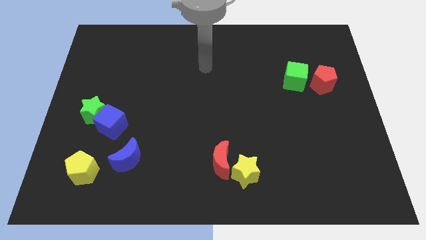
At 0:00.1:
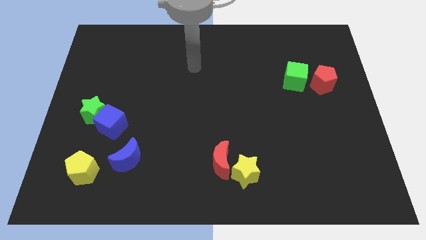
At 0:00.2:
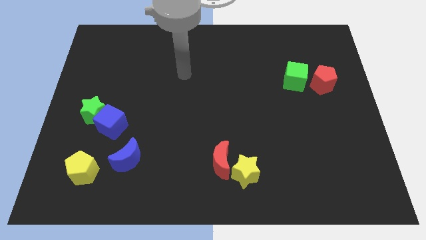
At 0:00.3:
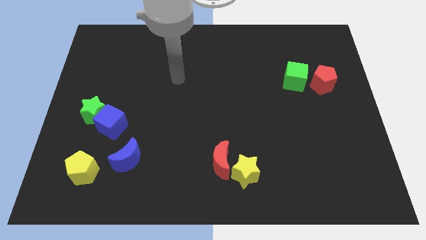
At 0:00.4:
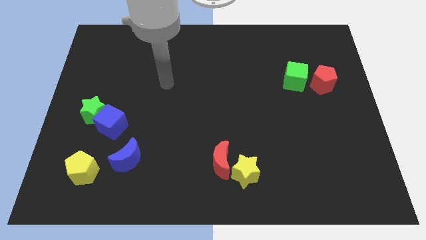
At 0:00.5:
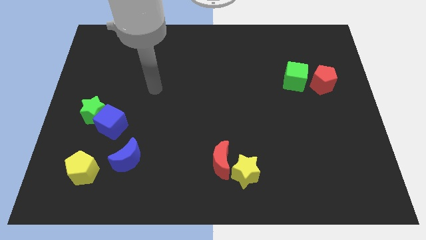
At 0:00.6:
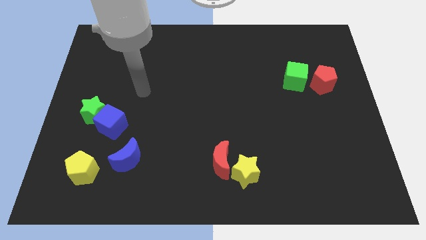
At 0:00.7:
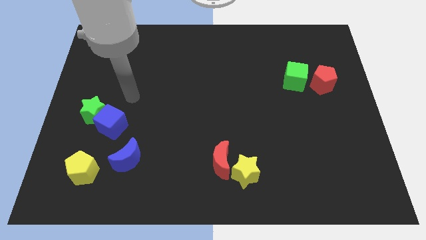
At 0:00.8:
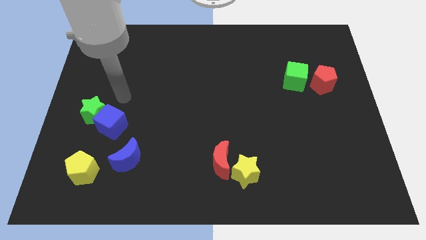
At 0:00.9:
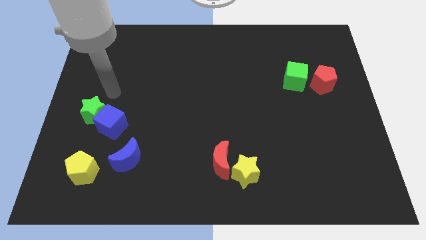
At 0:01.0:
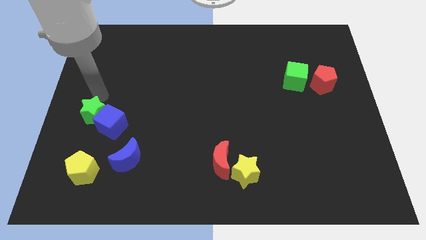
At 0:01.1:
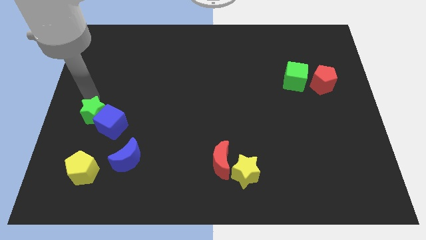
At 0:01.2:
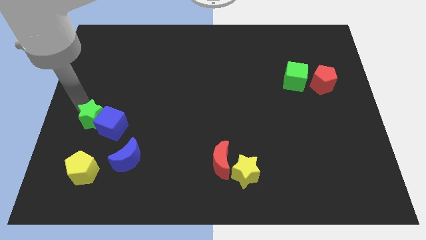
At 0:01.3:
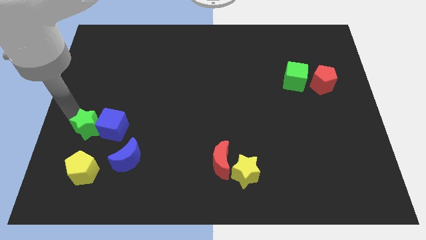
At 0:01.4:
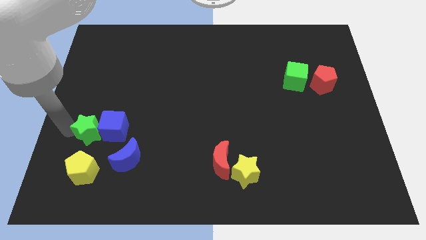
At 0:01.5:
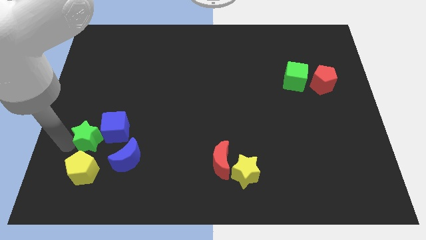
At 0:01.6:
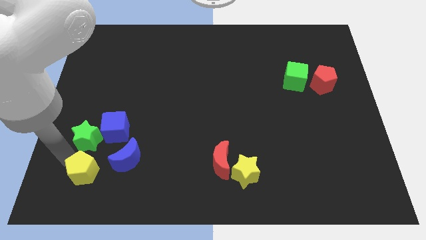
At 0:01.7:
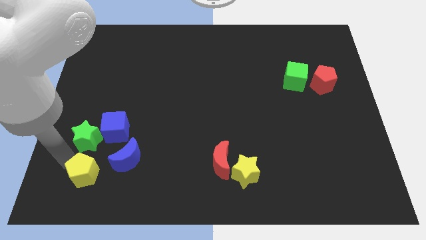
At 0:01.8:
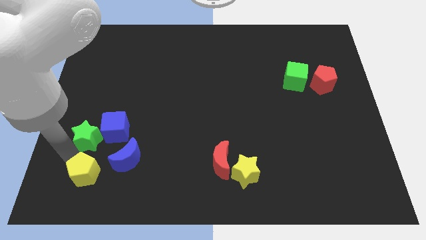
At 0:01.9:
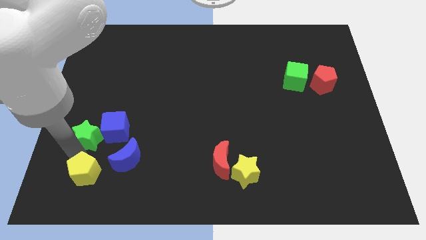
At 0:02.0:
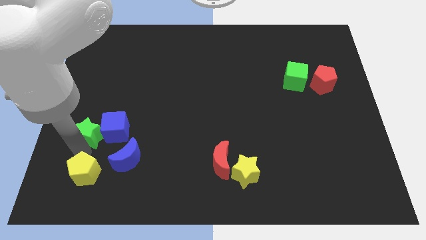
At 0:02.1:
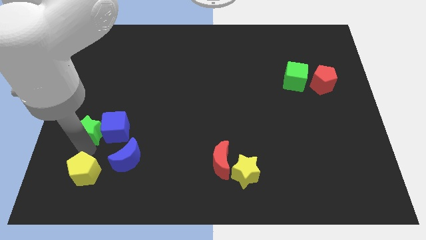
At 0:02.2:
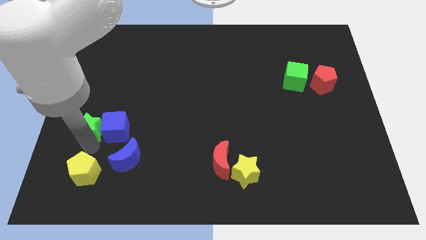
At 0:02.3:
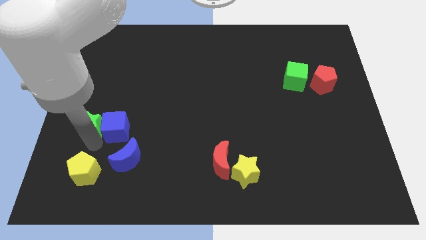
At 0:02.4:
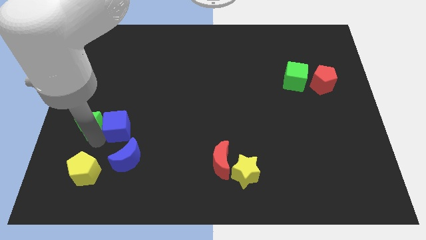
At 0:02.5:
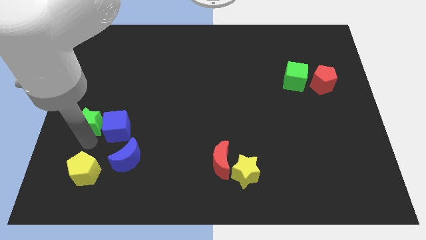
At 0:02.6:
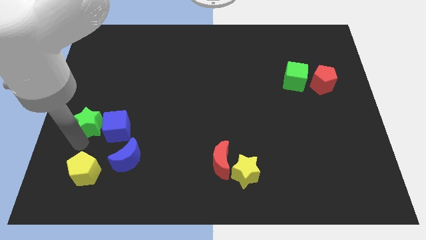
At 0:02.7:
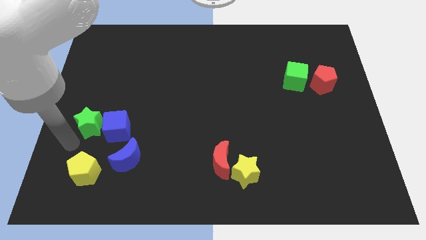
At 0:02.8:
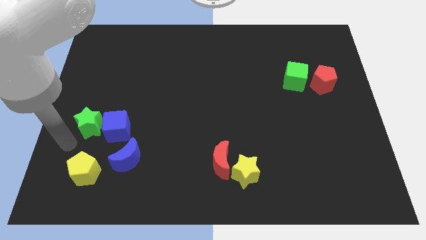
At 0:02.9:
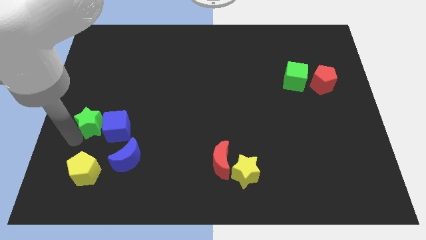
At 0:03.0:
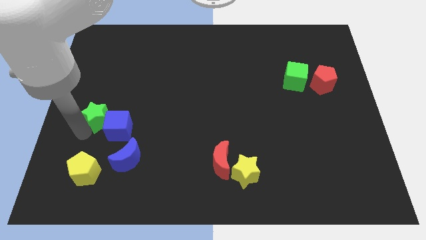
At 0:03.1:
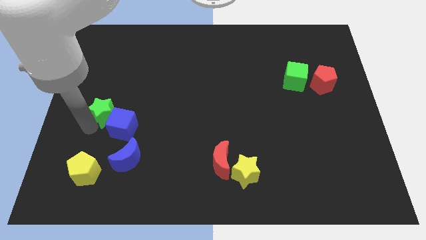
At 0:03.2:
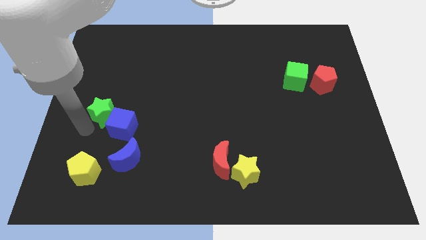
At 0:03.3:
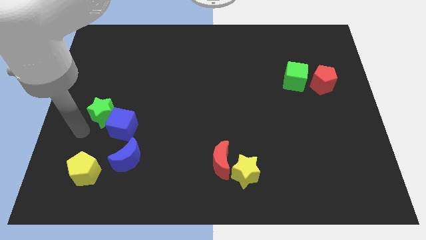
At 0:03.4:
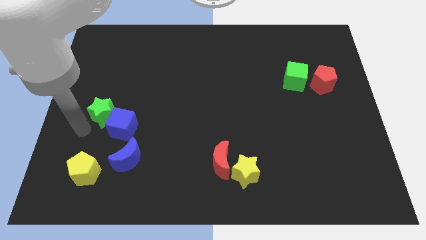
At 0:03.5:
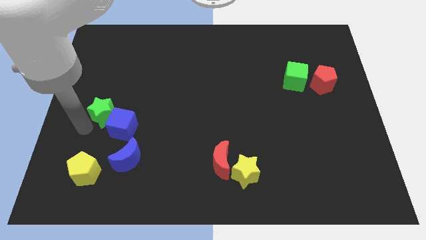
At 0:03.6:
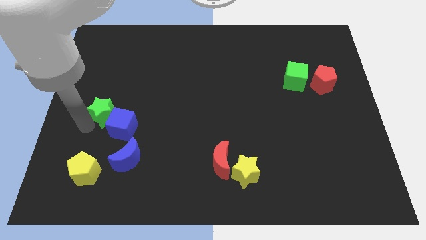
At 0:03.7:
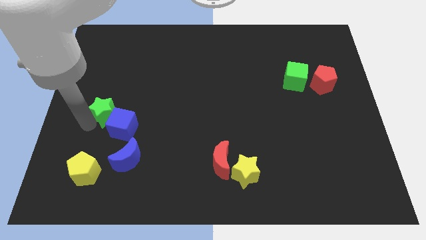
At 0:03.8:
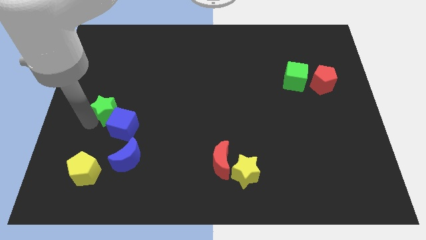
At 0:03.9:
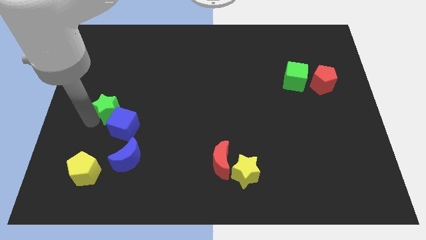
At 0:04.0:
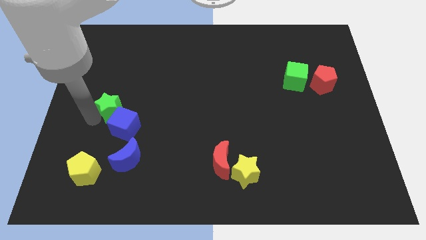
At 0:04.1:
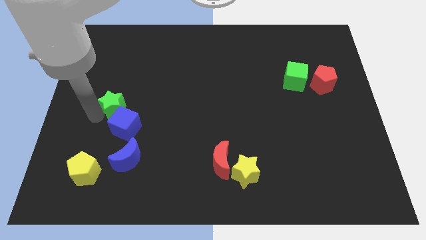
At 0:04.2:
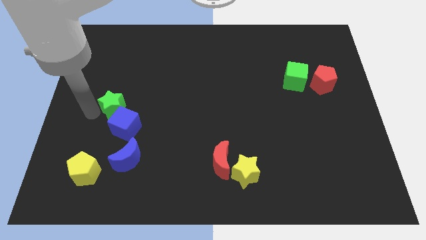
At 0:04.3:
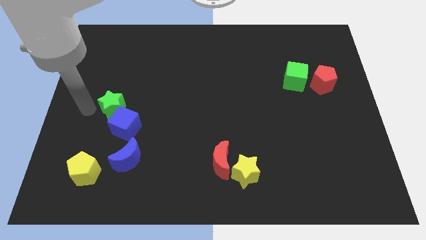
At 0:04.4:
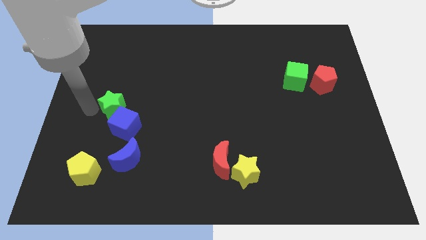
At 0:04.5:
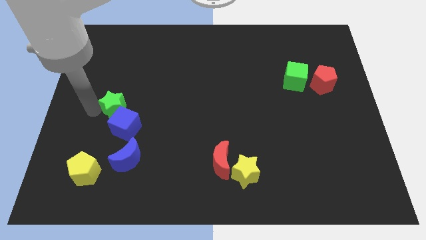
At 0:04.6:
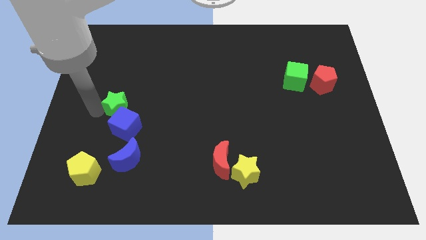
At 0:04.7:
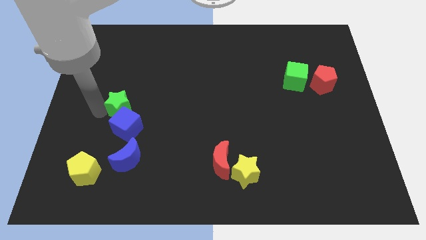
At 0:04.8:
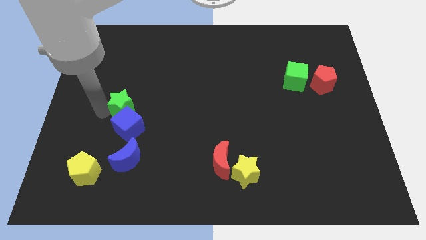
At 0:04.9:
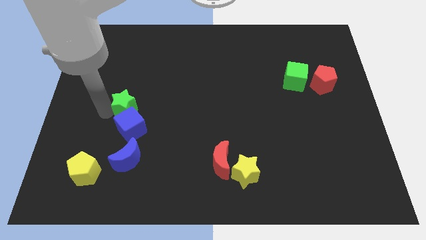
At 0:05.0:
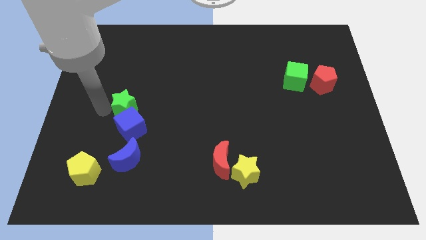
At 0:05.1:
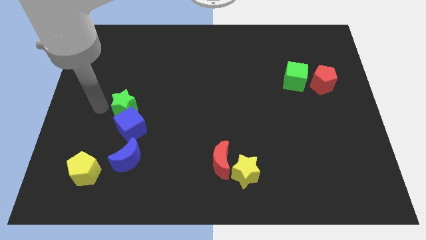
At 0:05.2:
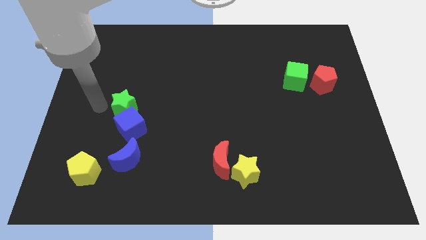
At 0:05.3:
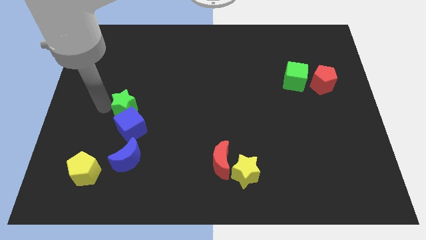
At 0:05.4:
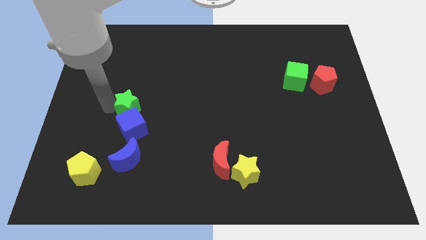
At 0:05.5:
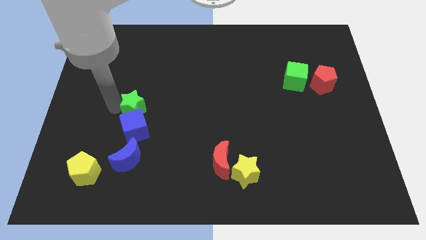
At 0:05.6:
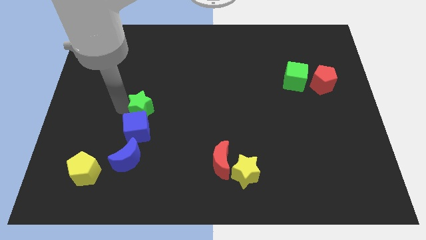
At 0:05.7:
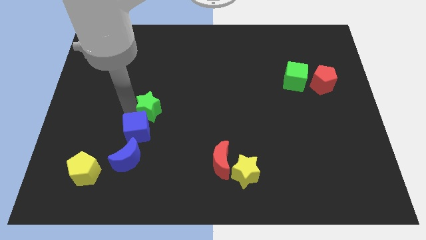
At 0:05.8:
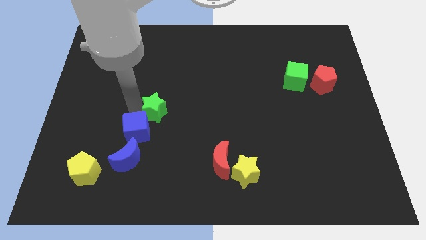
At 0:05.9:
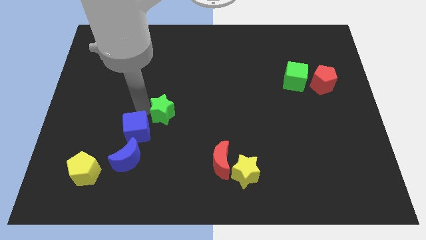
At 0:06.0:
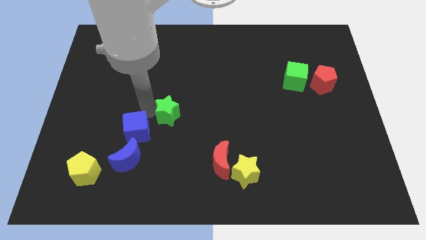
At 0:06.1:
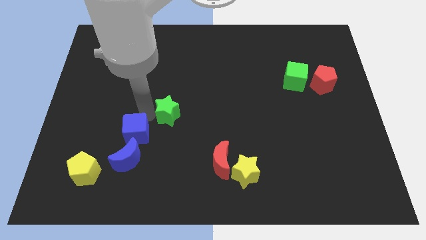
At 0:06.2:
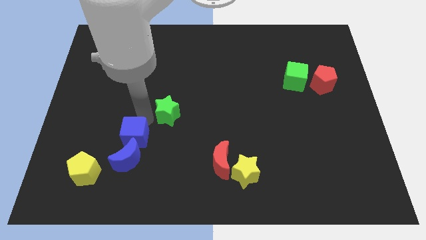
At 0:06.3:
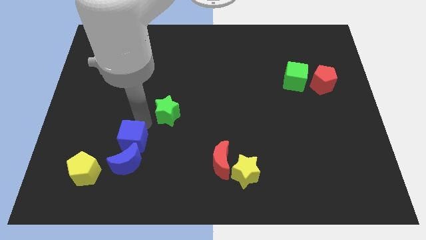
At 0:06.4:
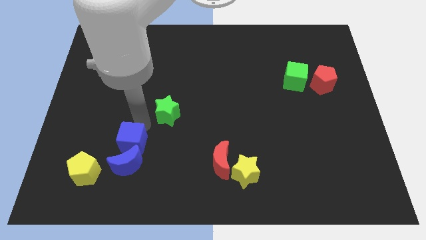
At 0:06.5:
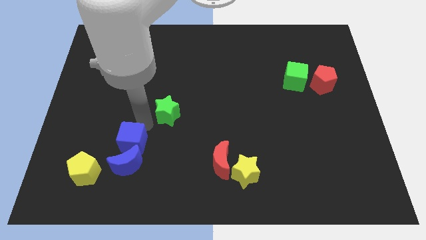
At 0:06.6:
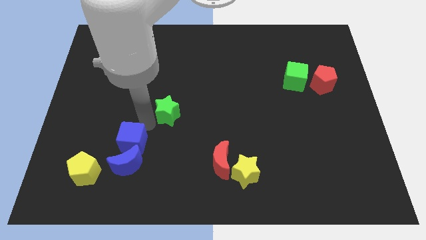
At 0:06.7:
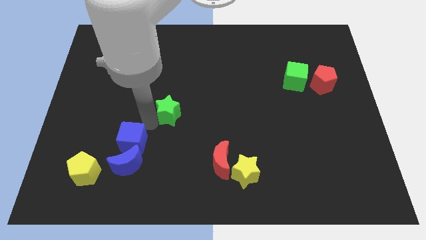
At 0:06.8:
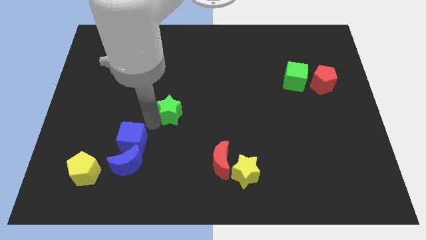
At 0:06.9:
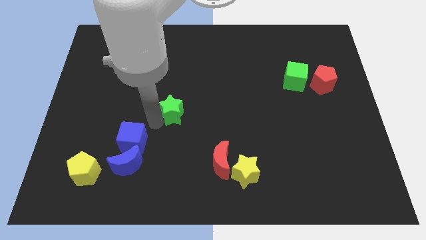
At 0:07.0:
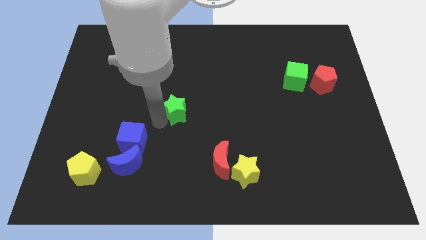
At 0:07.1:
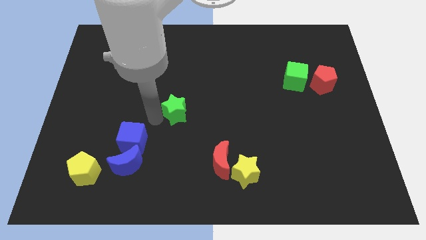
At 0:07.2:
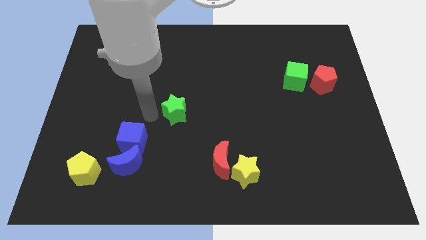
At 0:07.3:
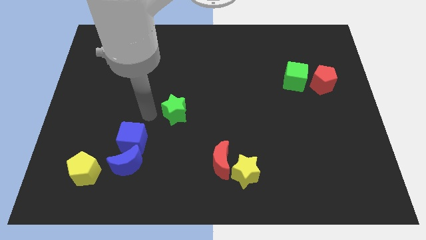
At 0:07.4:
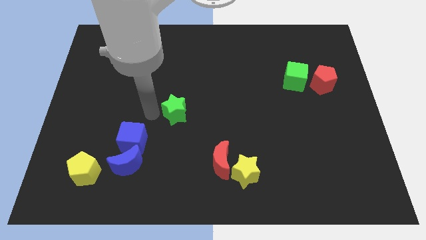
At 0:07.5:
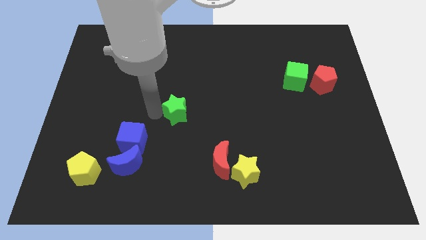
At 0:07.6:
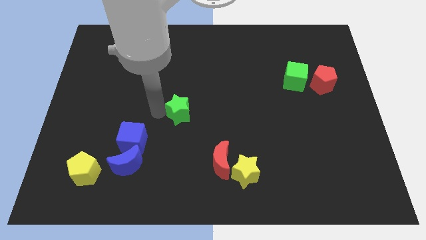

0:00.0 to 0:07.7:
push the green star to the right

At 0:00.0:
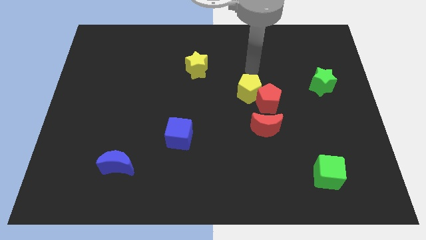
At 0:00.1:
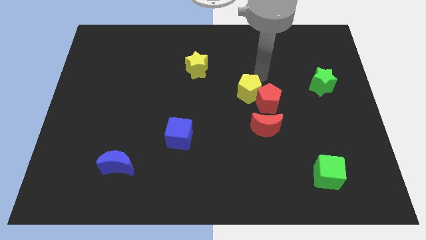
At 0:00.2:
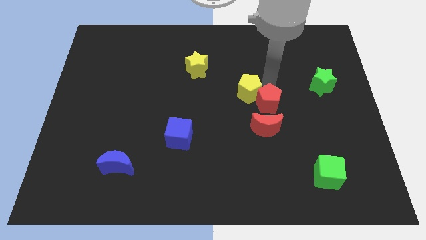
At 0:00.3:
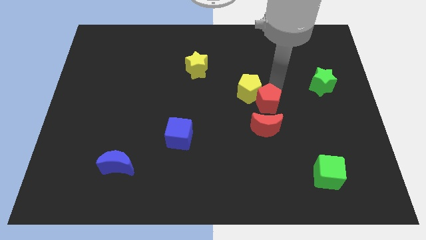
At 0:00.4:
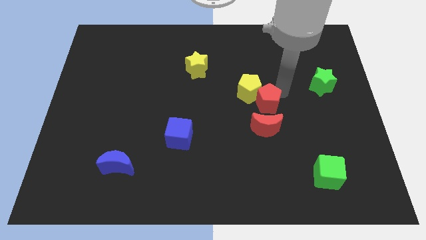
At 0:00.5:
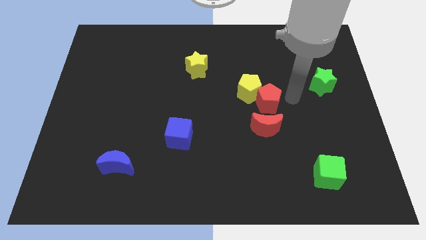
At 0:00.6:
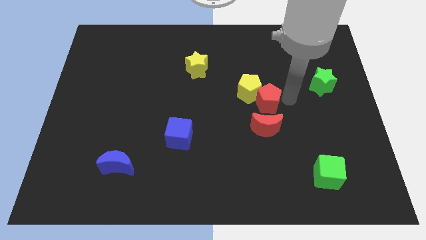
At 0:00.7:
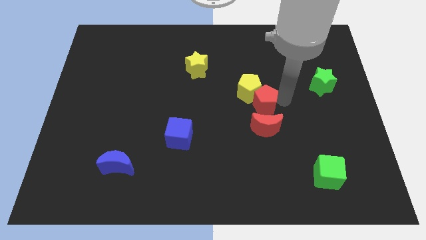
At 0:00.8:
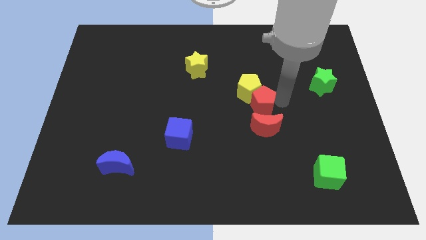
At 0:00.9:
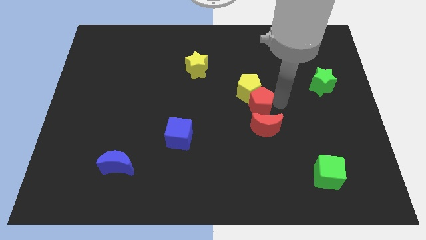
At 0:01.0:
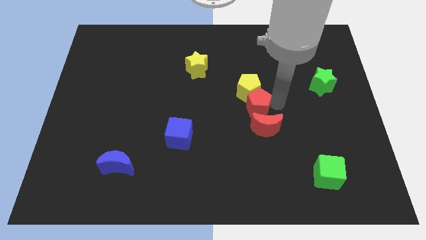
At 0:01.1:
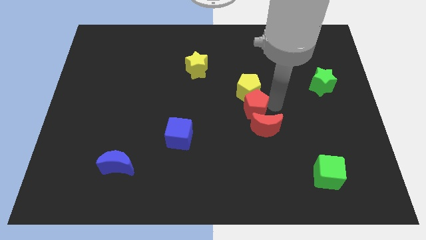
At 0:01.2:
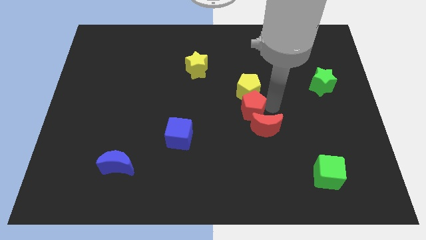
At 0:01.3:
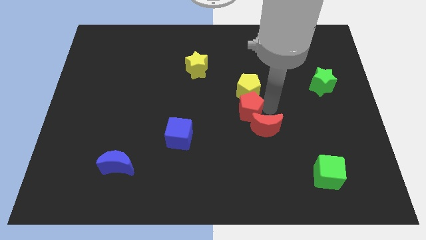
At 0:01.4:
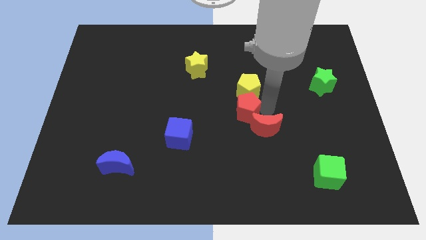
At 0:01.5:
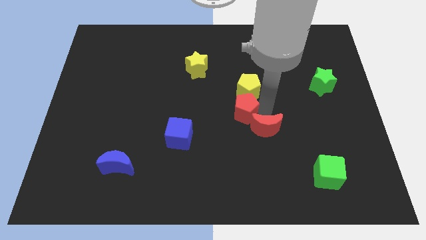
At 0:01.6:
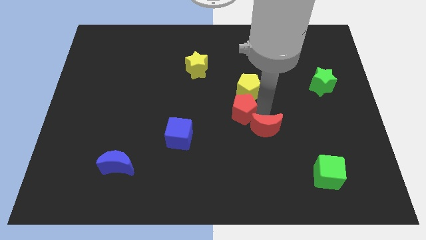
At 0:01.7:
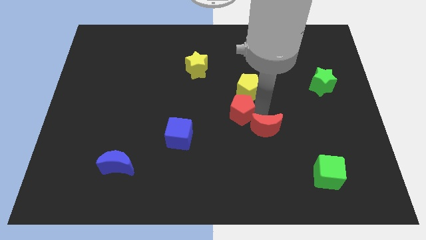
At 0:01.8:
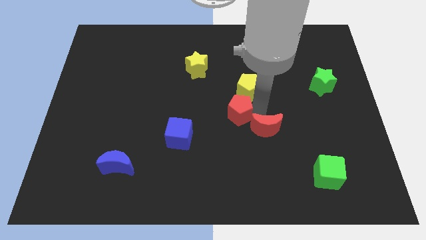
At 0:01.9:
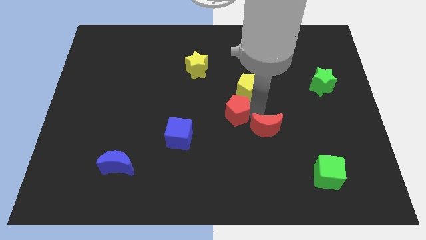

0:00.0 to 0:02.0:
move the red pentagon a bit left
